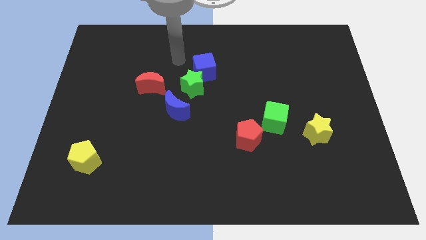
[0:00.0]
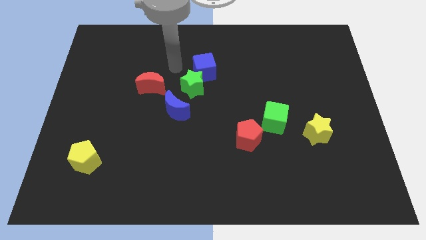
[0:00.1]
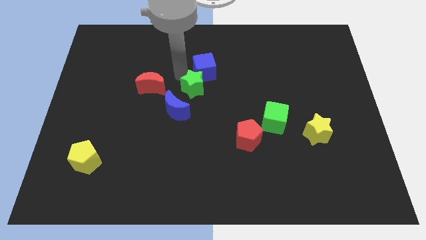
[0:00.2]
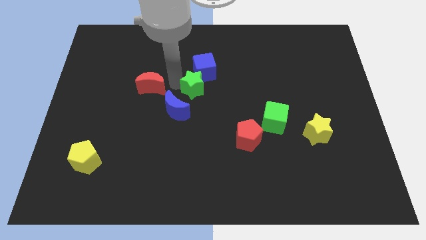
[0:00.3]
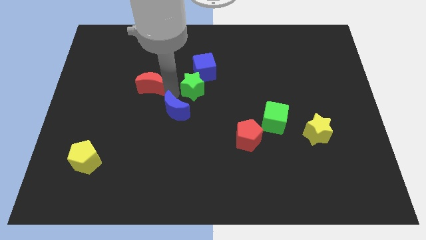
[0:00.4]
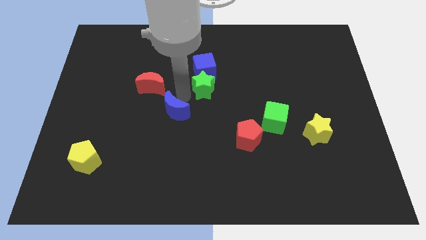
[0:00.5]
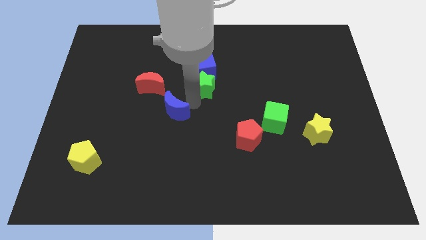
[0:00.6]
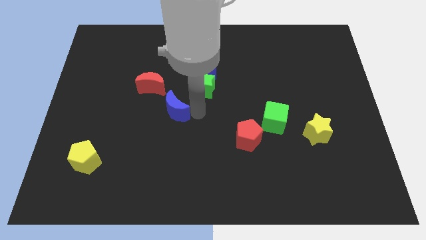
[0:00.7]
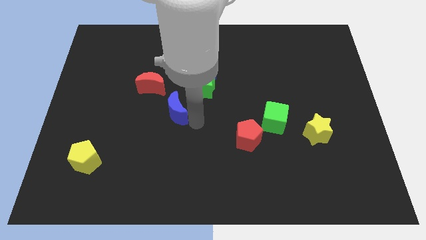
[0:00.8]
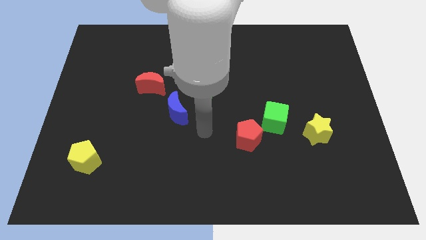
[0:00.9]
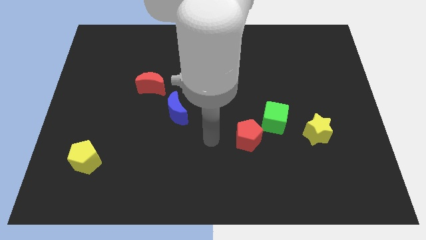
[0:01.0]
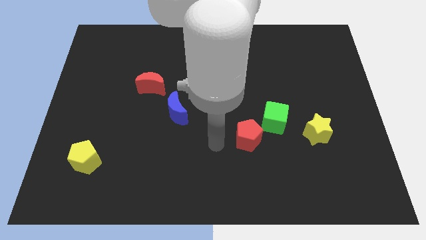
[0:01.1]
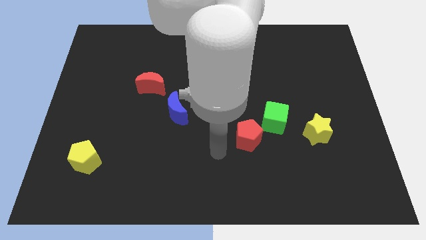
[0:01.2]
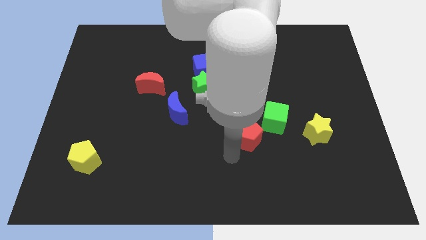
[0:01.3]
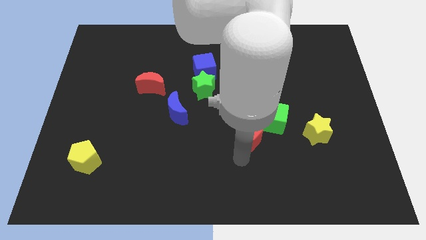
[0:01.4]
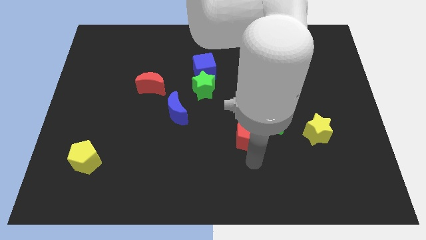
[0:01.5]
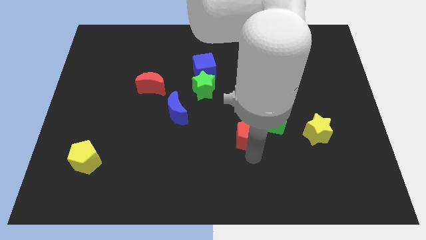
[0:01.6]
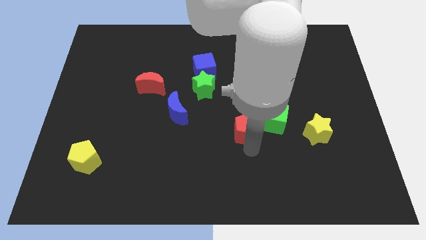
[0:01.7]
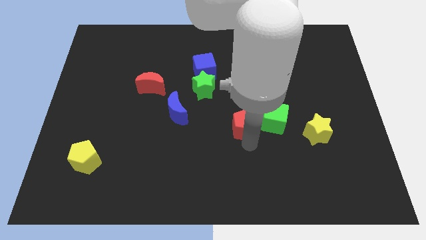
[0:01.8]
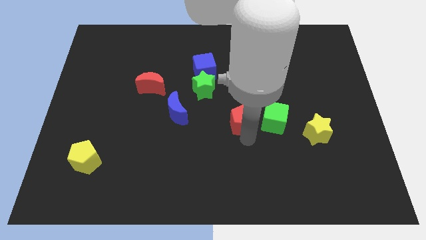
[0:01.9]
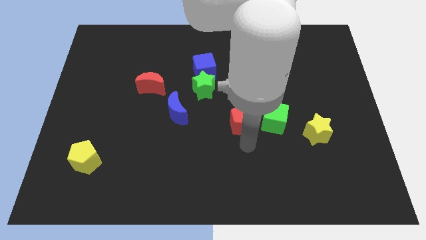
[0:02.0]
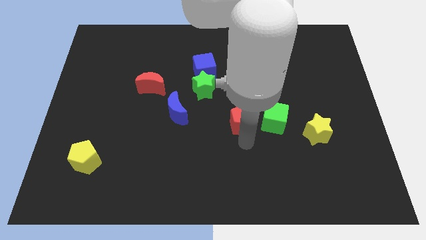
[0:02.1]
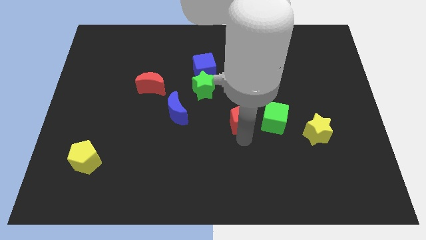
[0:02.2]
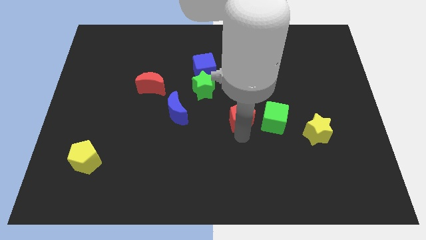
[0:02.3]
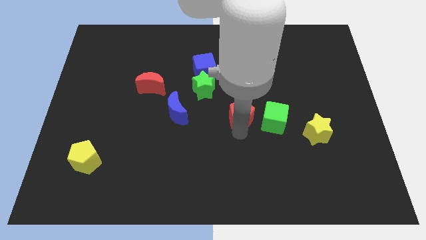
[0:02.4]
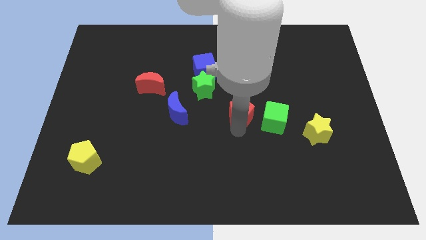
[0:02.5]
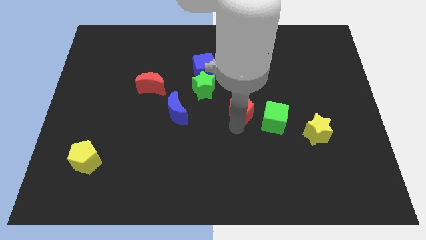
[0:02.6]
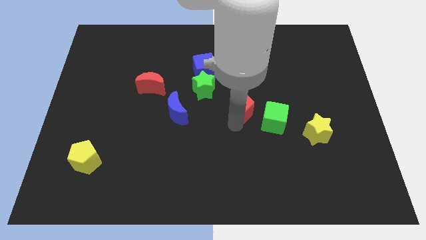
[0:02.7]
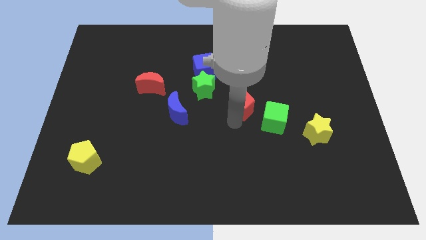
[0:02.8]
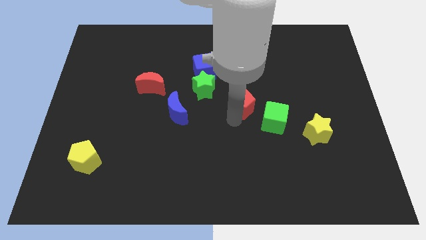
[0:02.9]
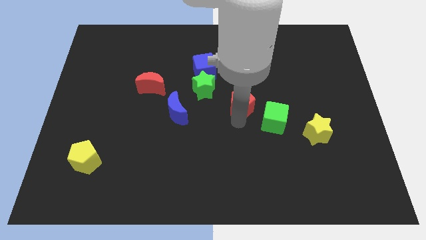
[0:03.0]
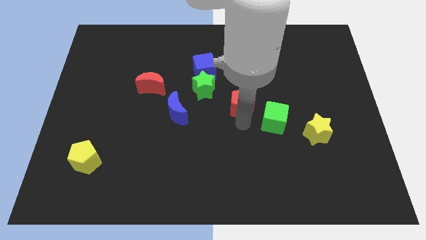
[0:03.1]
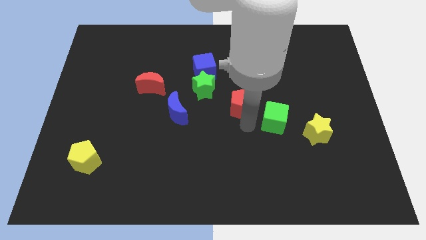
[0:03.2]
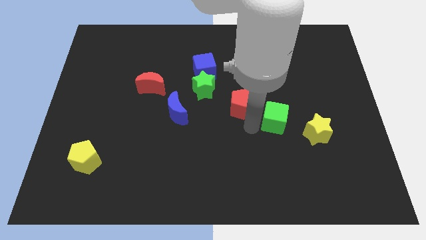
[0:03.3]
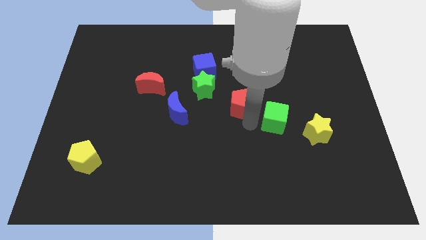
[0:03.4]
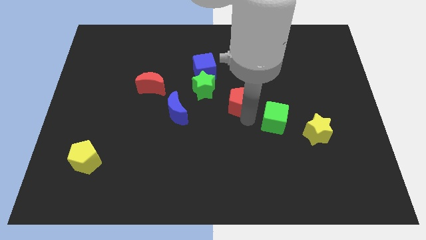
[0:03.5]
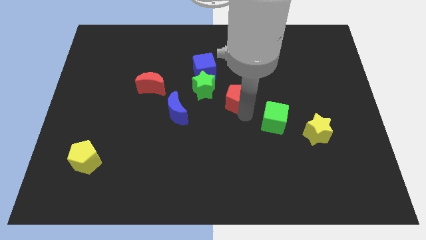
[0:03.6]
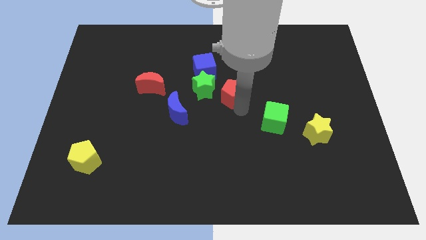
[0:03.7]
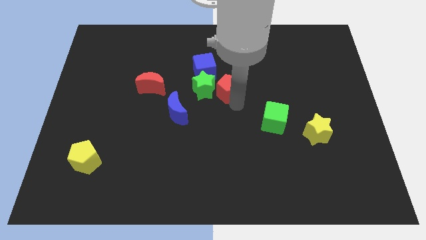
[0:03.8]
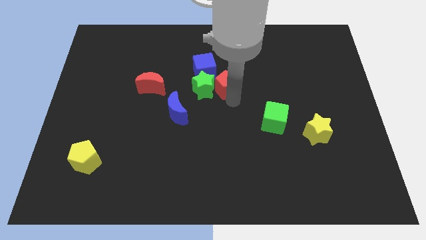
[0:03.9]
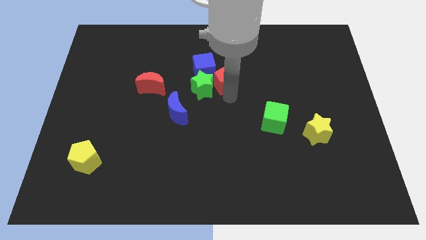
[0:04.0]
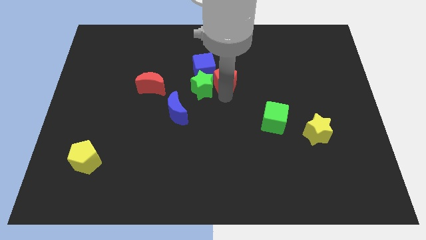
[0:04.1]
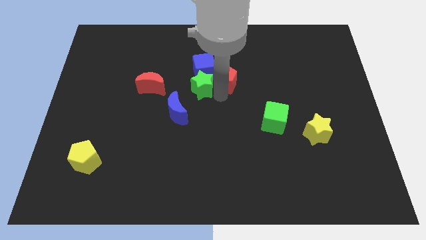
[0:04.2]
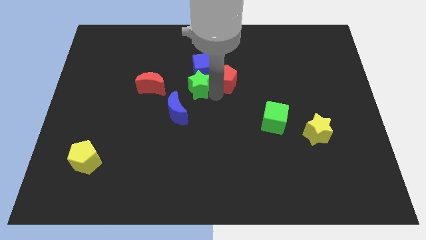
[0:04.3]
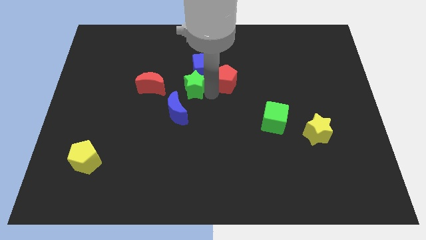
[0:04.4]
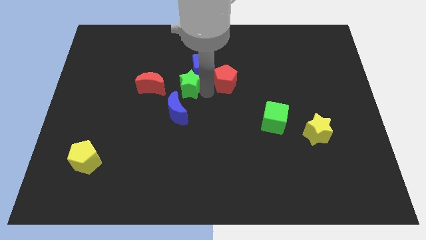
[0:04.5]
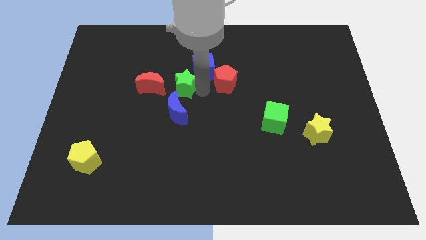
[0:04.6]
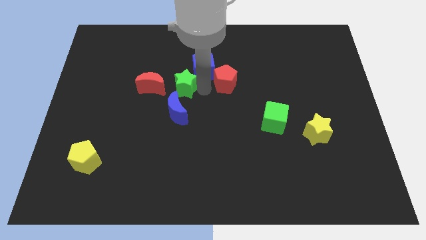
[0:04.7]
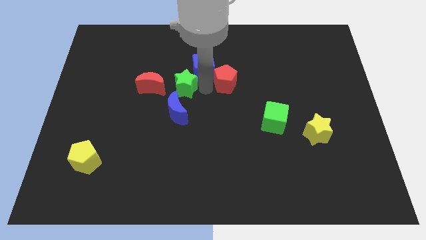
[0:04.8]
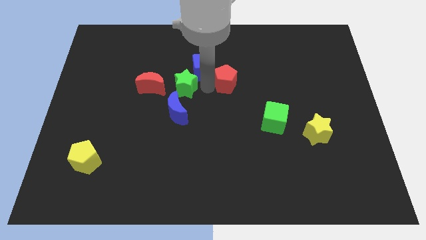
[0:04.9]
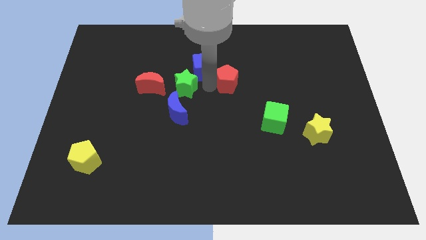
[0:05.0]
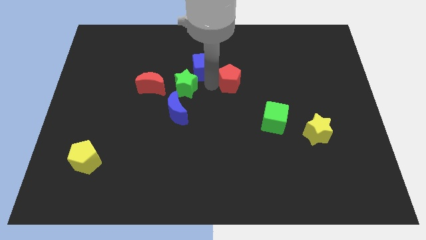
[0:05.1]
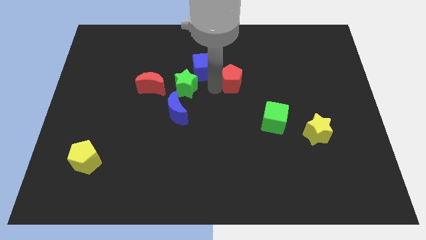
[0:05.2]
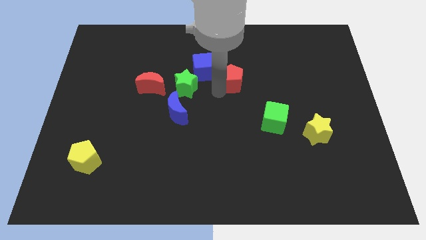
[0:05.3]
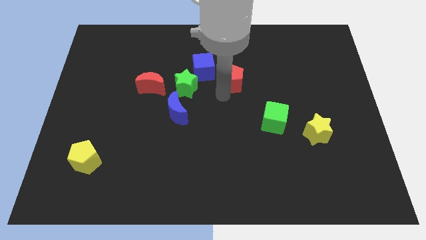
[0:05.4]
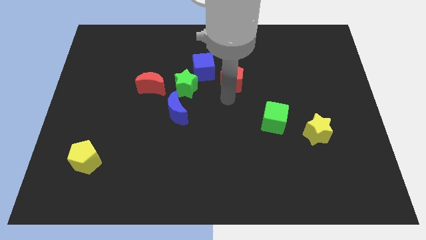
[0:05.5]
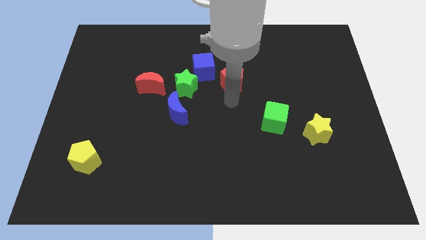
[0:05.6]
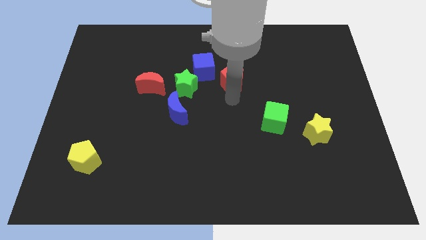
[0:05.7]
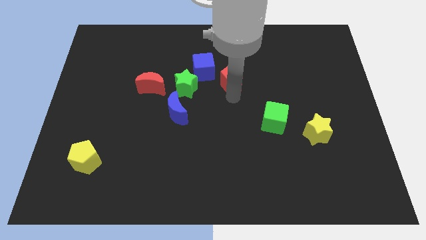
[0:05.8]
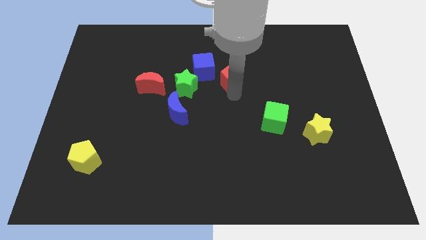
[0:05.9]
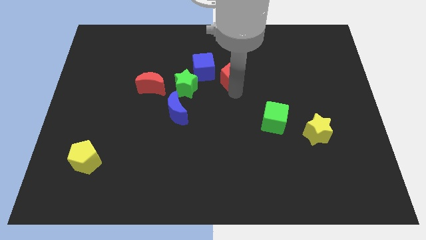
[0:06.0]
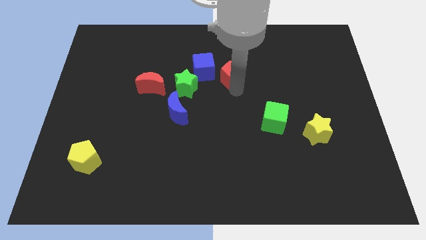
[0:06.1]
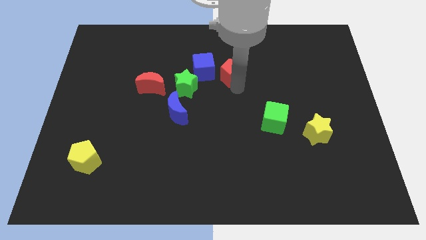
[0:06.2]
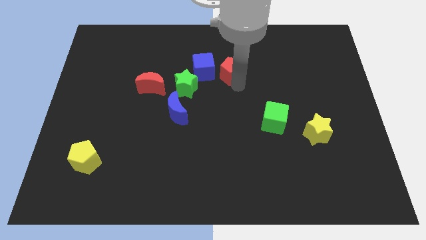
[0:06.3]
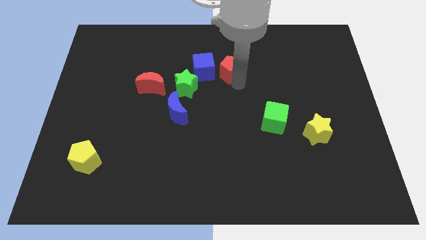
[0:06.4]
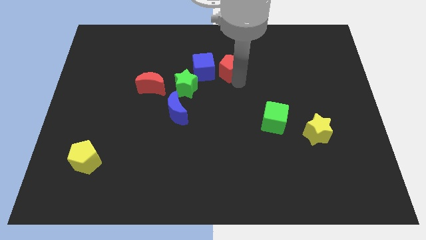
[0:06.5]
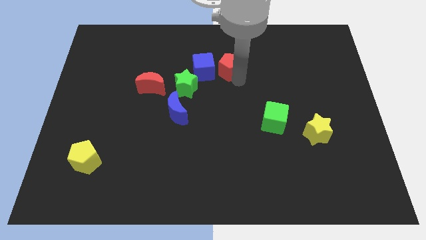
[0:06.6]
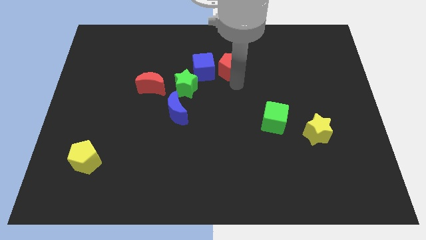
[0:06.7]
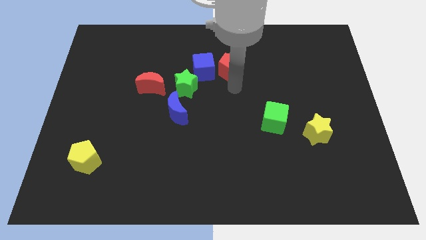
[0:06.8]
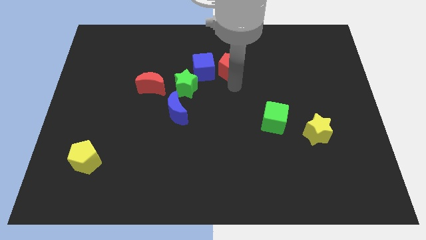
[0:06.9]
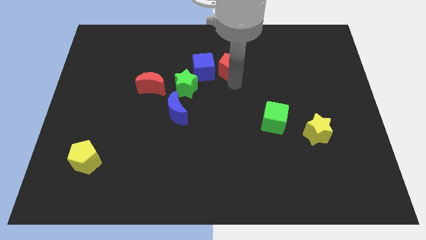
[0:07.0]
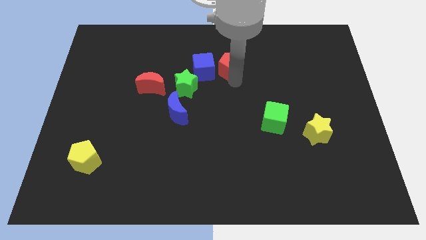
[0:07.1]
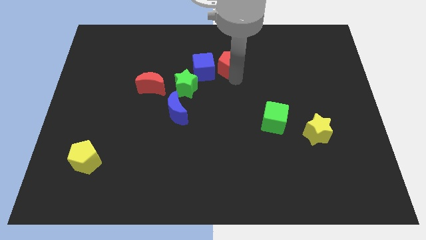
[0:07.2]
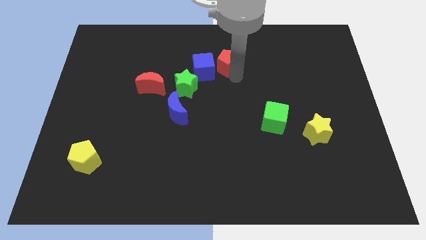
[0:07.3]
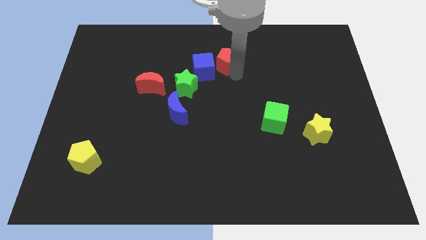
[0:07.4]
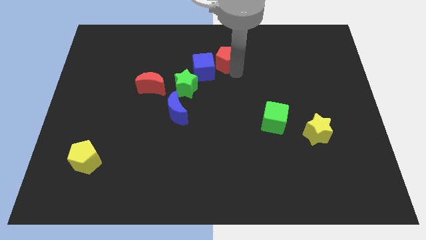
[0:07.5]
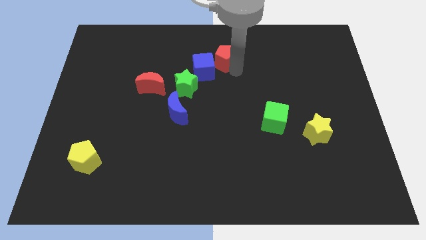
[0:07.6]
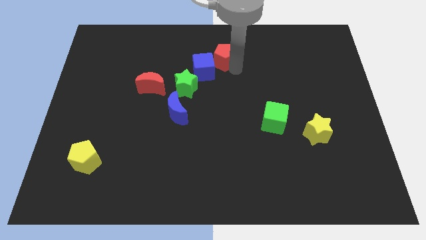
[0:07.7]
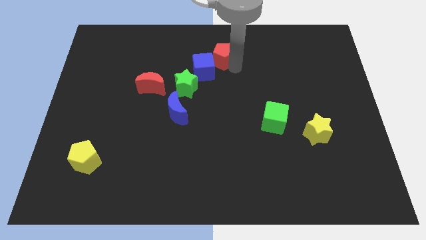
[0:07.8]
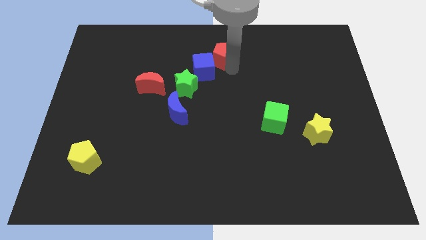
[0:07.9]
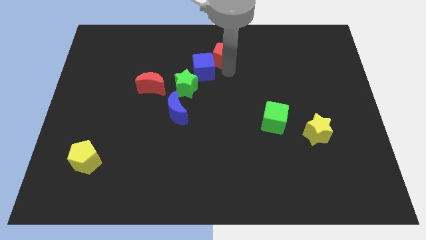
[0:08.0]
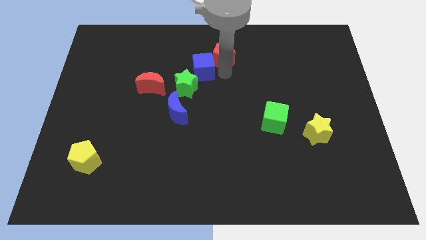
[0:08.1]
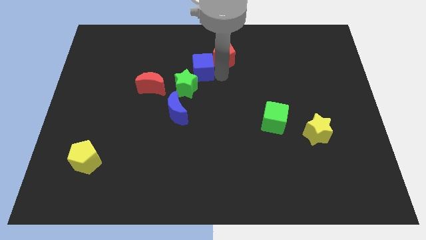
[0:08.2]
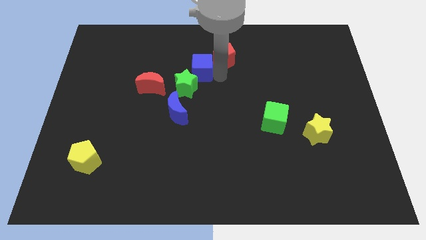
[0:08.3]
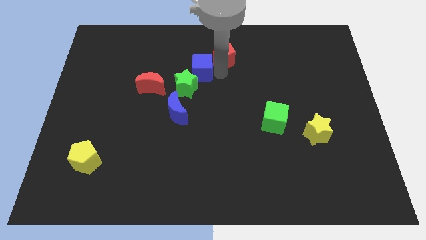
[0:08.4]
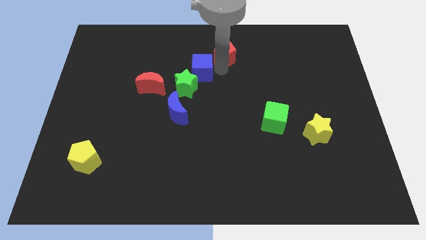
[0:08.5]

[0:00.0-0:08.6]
move the red pentagon to the top
